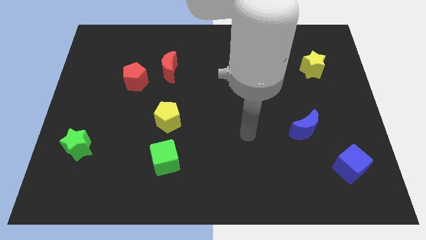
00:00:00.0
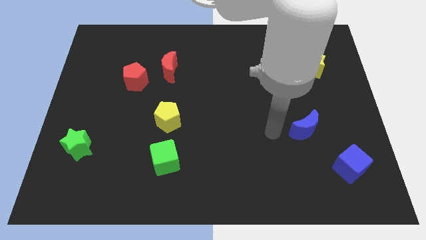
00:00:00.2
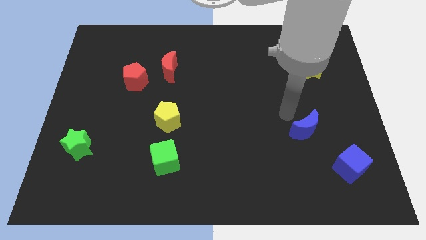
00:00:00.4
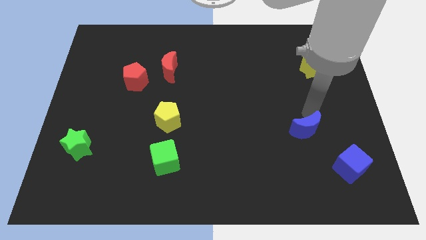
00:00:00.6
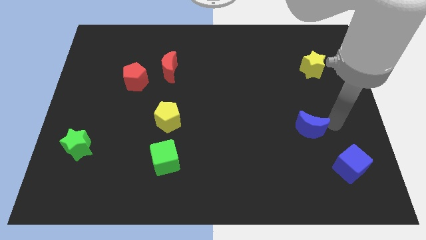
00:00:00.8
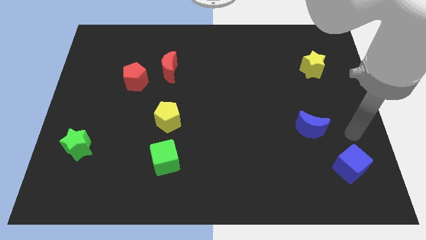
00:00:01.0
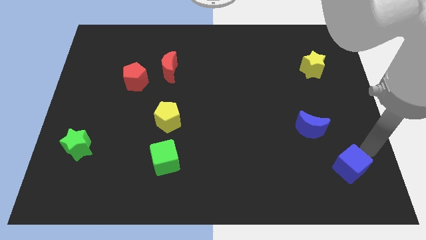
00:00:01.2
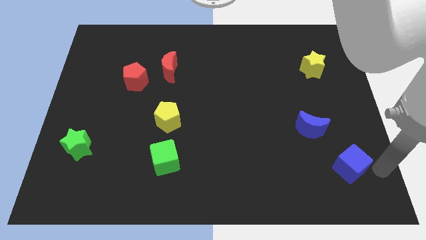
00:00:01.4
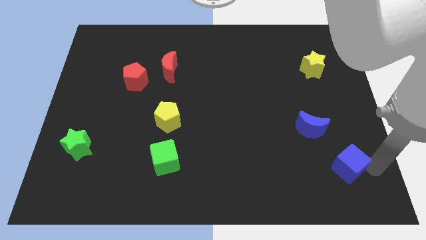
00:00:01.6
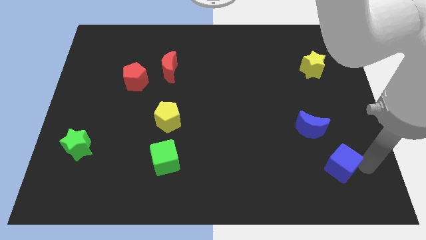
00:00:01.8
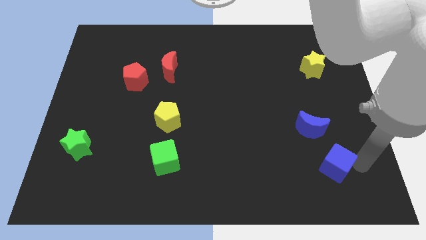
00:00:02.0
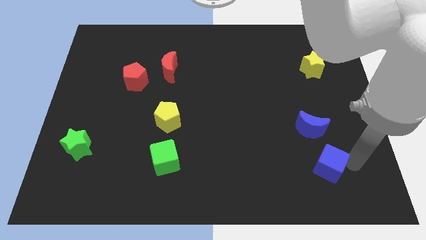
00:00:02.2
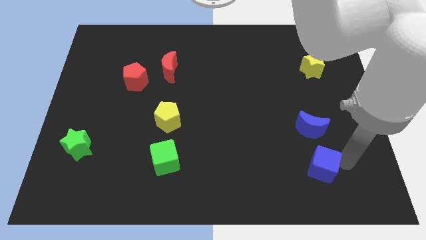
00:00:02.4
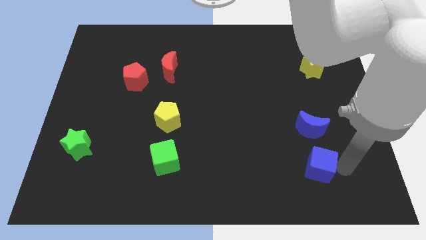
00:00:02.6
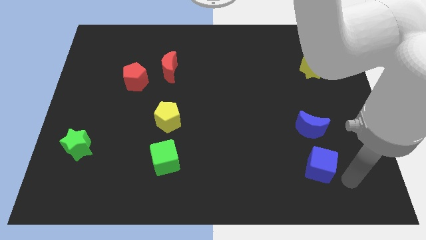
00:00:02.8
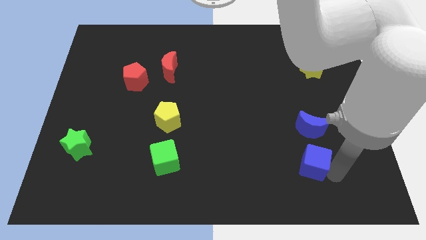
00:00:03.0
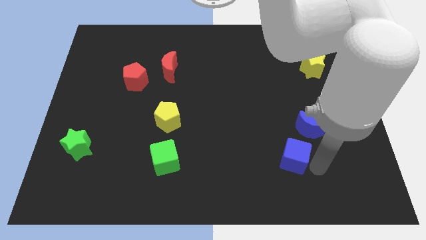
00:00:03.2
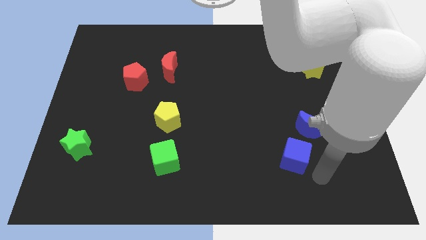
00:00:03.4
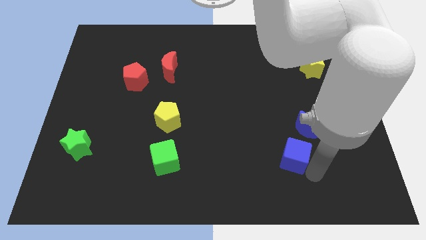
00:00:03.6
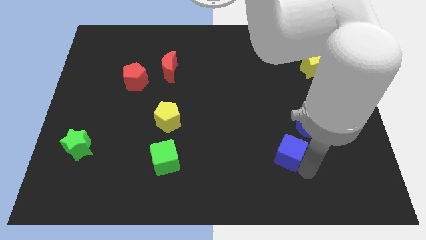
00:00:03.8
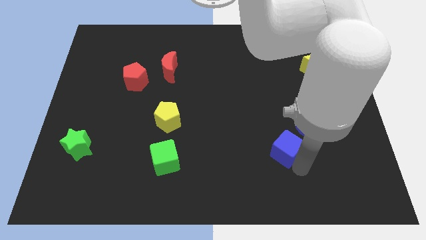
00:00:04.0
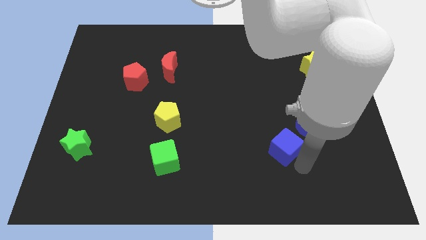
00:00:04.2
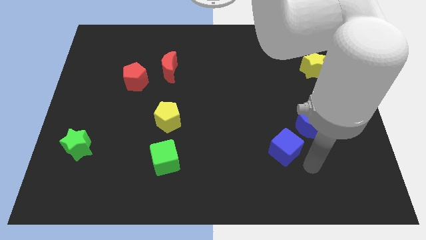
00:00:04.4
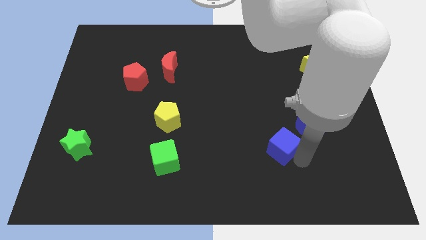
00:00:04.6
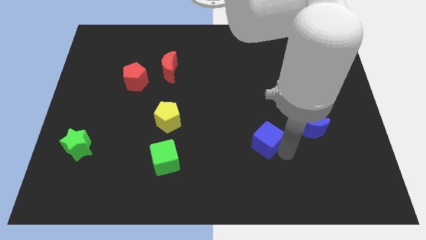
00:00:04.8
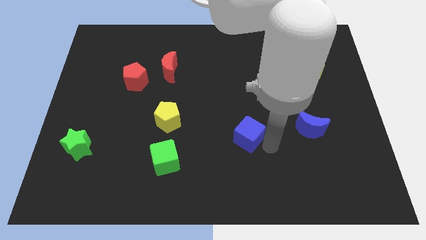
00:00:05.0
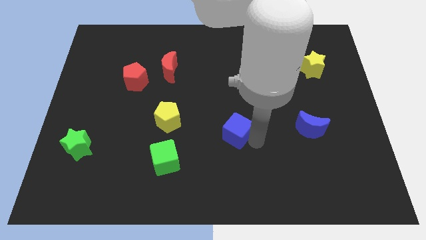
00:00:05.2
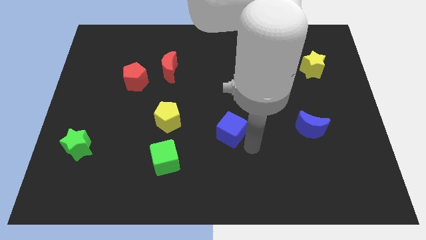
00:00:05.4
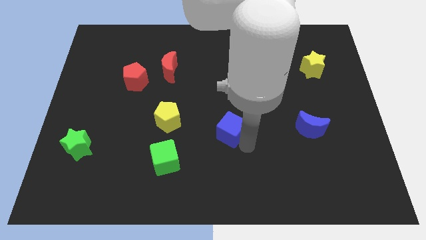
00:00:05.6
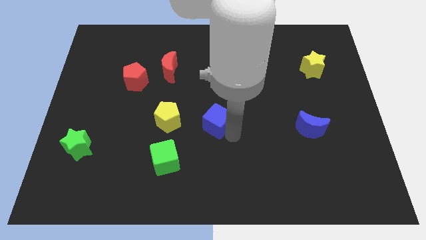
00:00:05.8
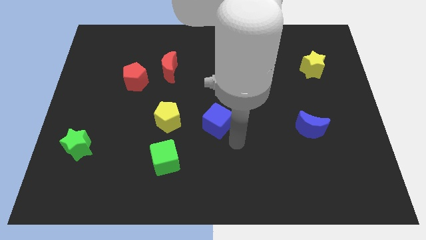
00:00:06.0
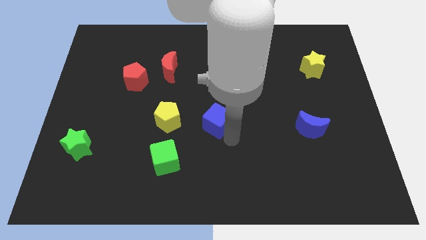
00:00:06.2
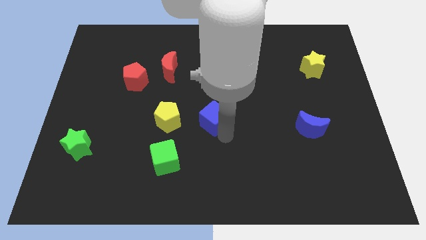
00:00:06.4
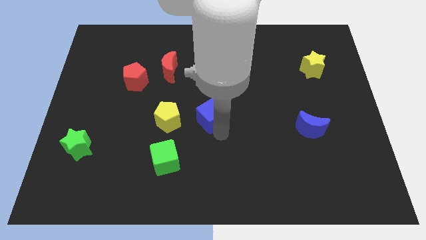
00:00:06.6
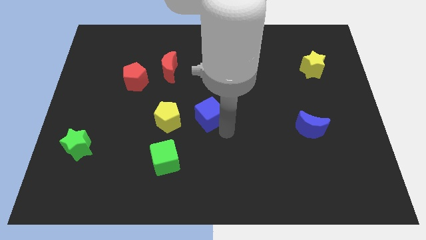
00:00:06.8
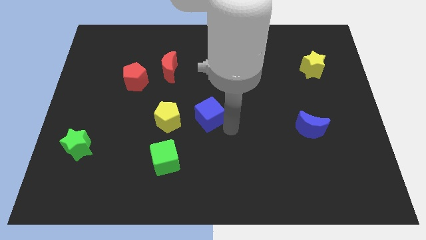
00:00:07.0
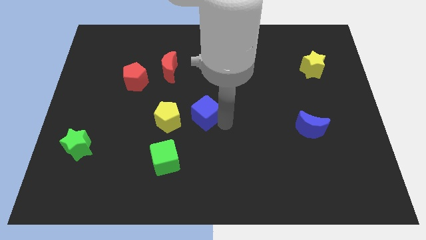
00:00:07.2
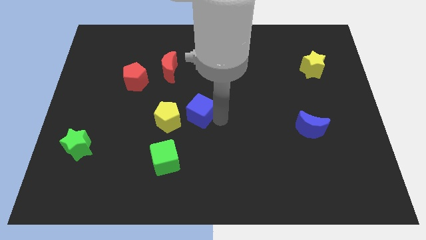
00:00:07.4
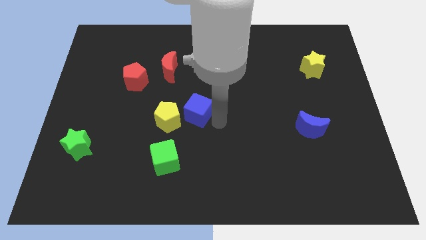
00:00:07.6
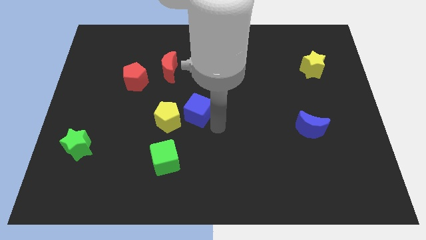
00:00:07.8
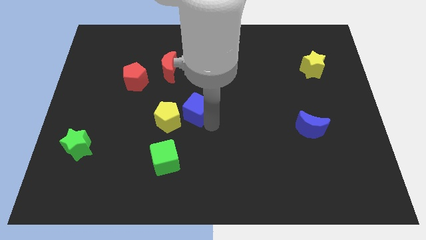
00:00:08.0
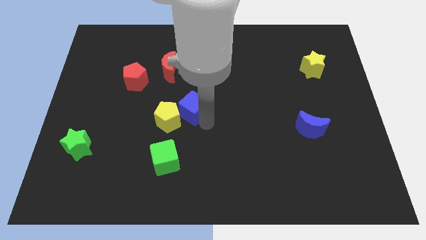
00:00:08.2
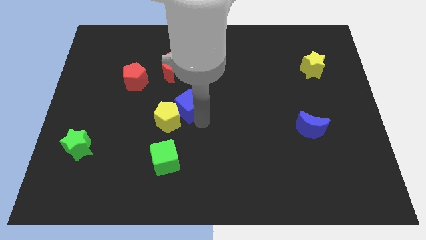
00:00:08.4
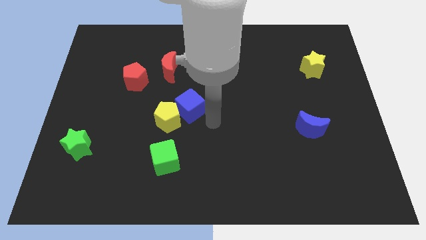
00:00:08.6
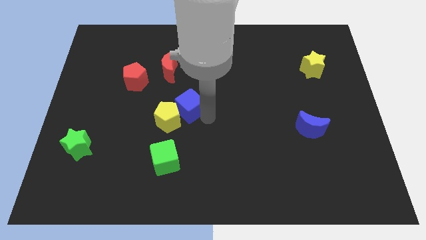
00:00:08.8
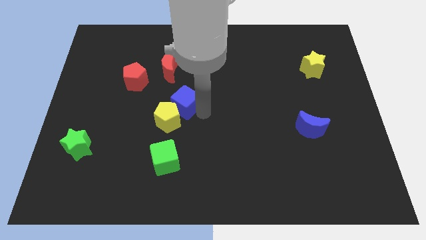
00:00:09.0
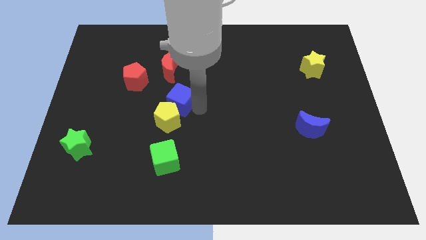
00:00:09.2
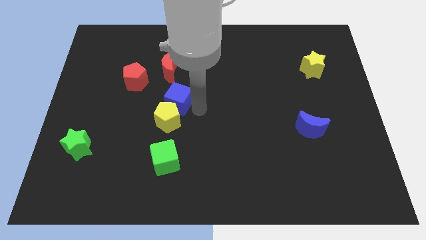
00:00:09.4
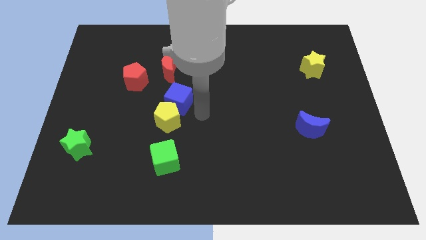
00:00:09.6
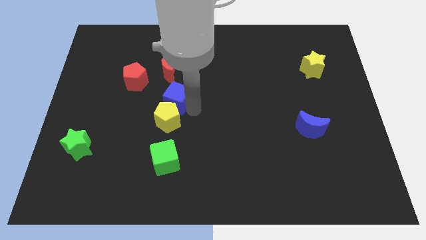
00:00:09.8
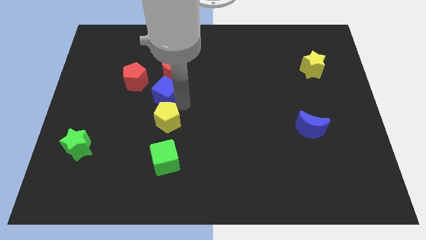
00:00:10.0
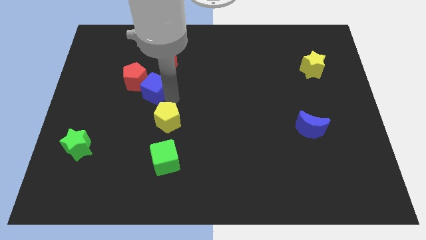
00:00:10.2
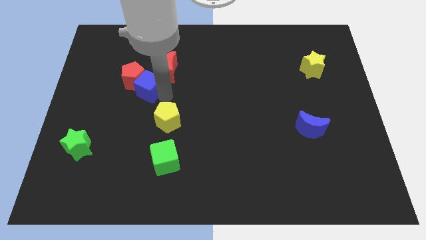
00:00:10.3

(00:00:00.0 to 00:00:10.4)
move the blue cube towards the red pentagon
